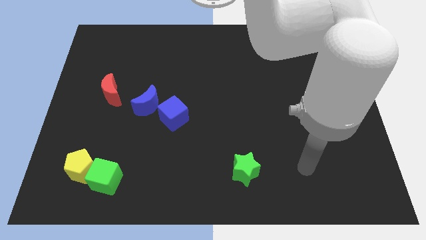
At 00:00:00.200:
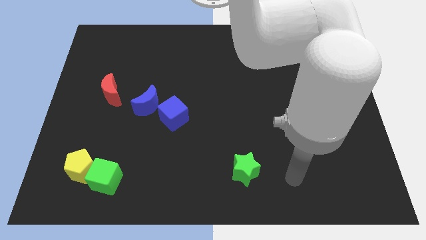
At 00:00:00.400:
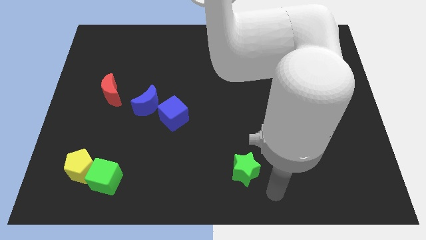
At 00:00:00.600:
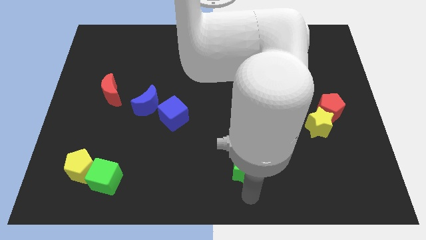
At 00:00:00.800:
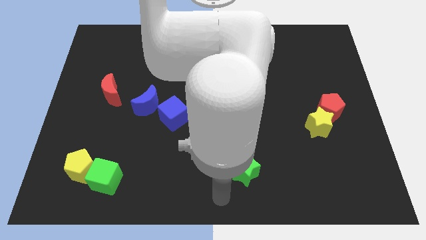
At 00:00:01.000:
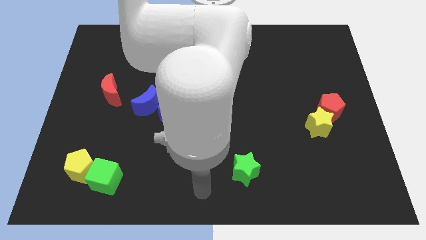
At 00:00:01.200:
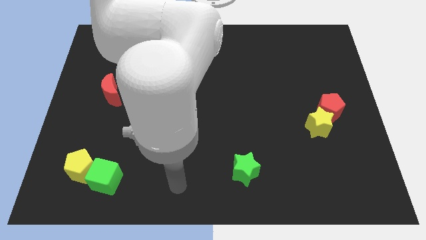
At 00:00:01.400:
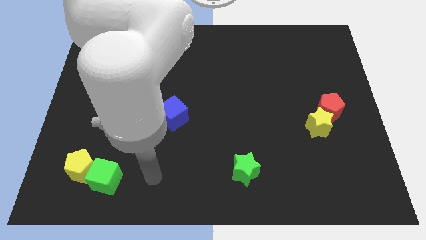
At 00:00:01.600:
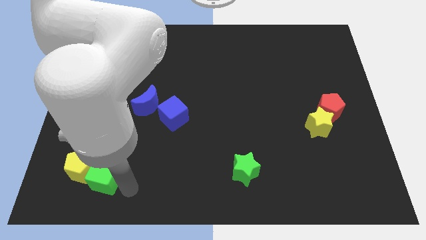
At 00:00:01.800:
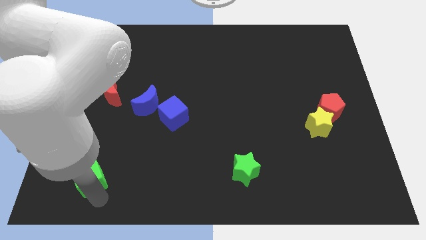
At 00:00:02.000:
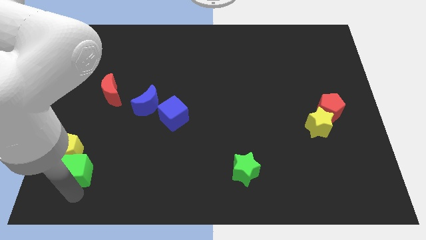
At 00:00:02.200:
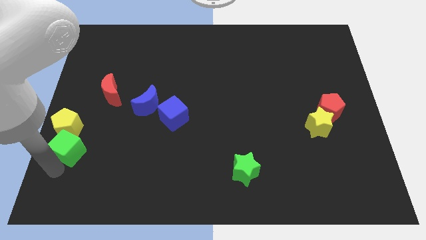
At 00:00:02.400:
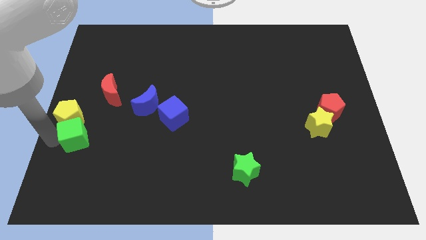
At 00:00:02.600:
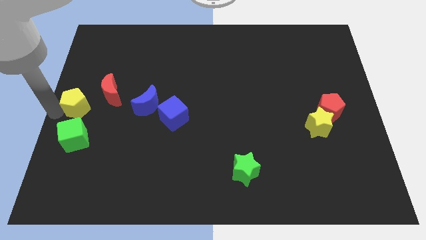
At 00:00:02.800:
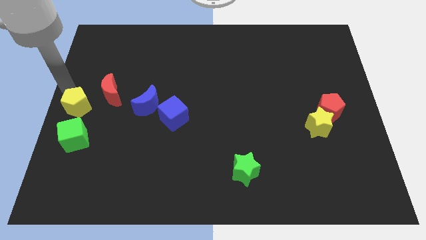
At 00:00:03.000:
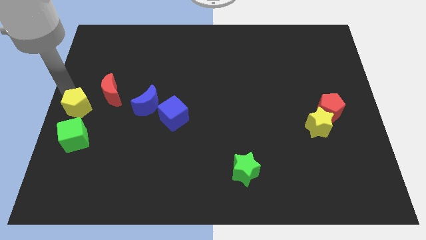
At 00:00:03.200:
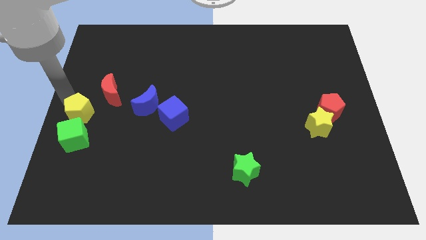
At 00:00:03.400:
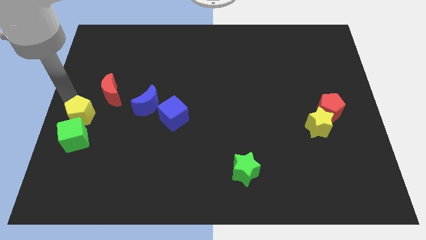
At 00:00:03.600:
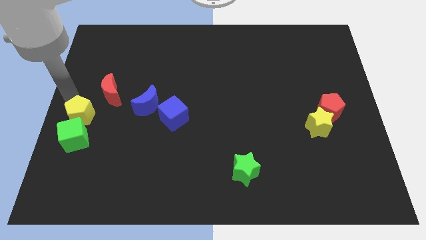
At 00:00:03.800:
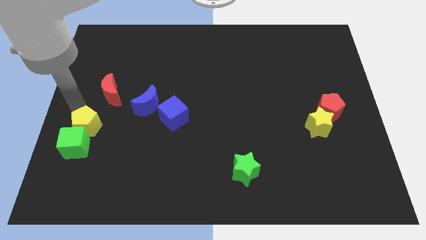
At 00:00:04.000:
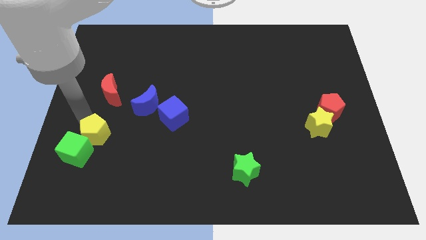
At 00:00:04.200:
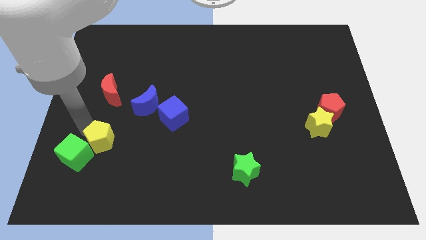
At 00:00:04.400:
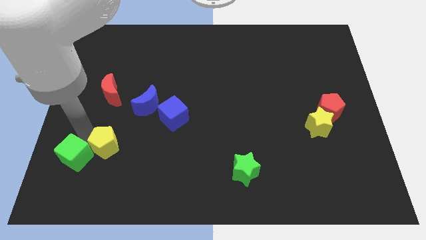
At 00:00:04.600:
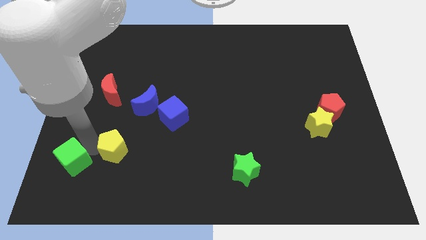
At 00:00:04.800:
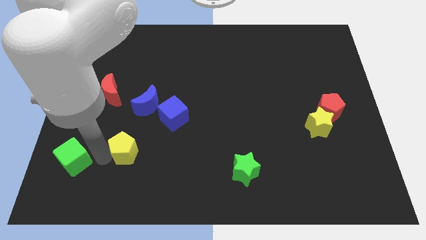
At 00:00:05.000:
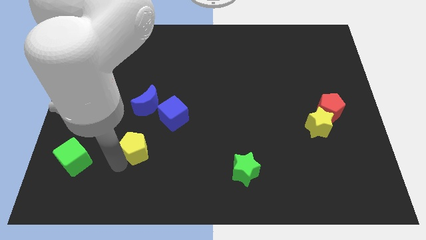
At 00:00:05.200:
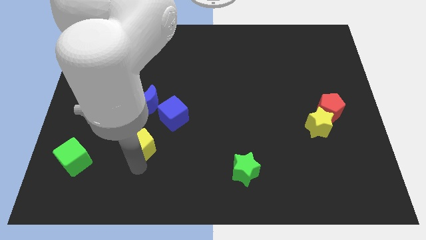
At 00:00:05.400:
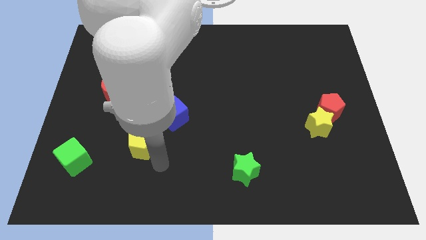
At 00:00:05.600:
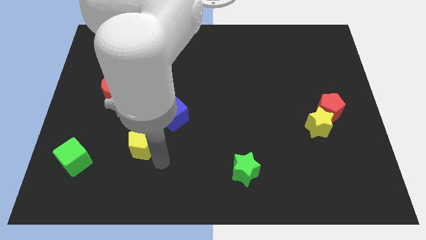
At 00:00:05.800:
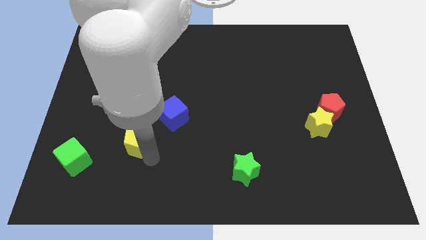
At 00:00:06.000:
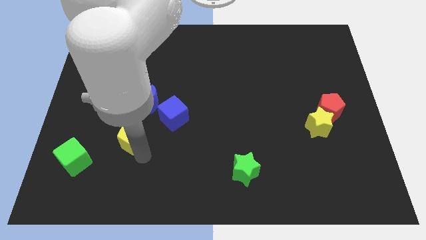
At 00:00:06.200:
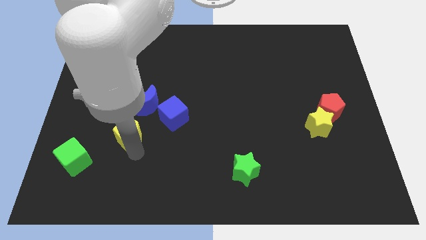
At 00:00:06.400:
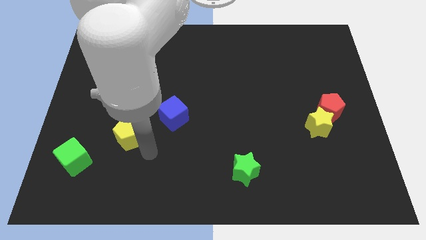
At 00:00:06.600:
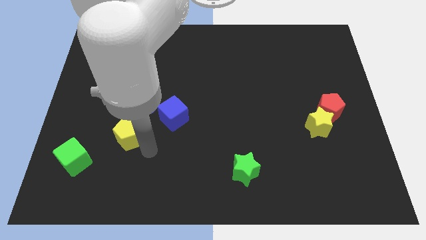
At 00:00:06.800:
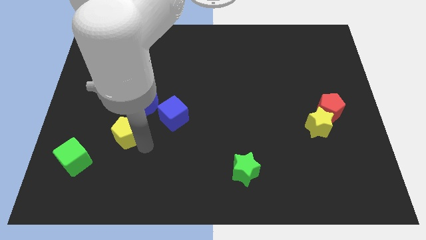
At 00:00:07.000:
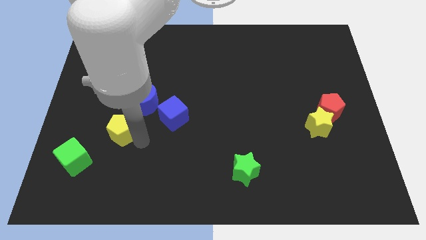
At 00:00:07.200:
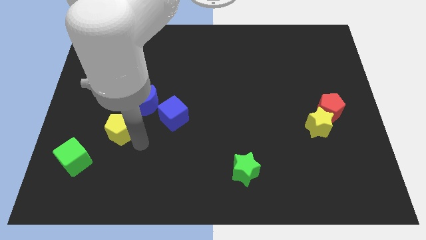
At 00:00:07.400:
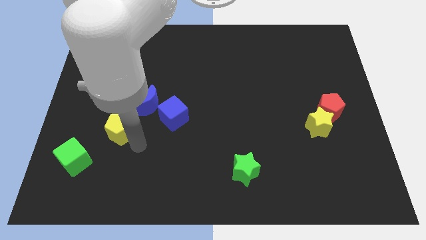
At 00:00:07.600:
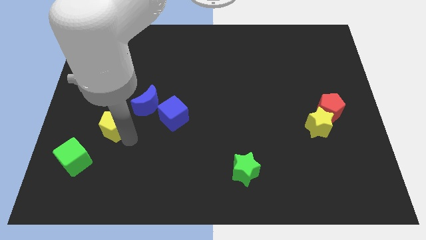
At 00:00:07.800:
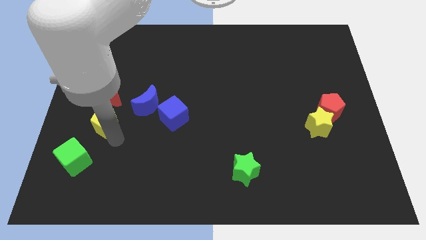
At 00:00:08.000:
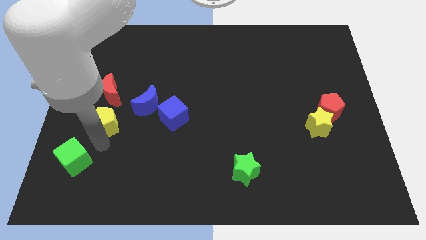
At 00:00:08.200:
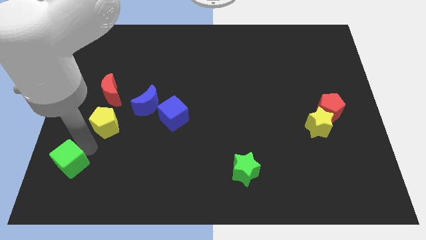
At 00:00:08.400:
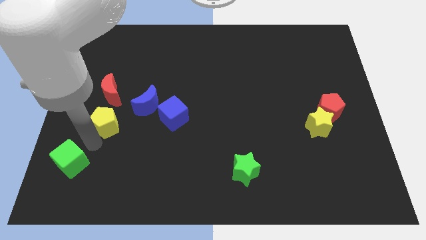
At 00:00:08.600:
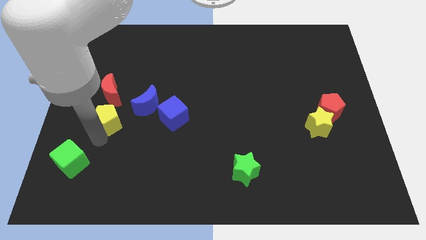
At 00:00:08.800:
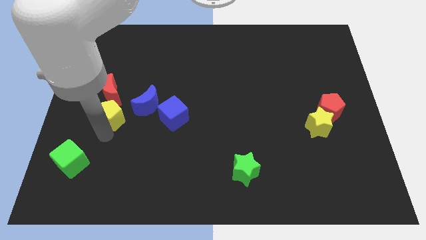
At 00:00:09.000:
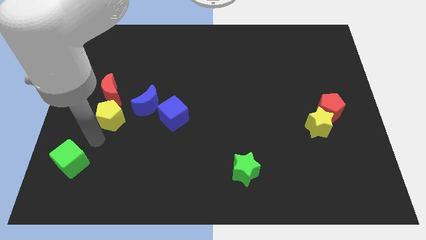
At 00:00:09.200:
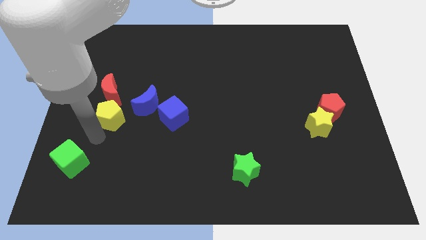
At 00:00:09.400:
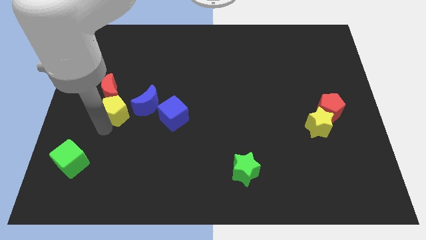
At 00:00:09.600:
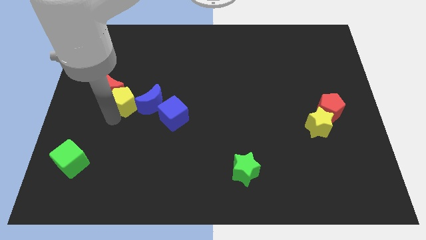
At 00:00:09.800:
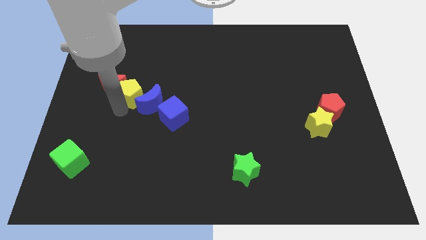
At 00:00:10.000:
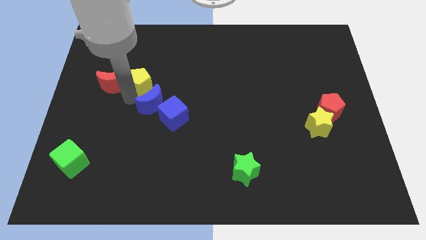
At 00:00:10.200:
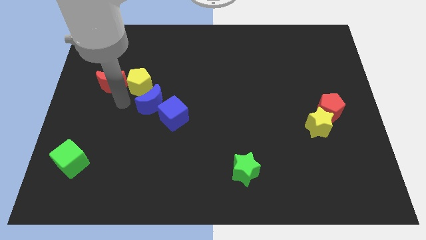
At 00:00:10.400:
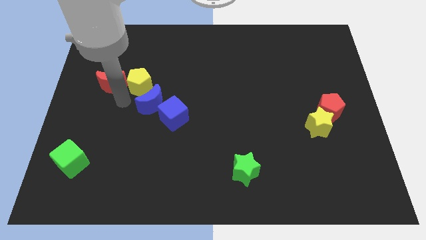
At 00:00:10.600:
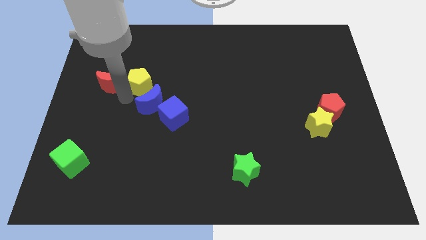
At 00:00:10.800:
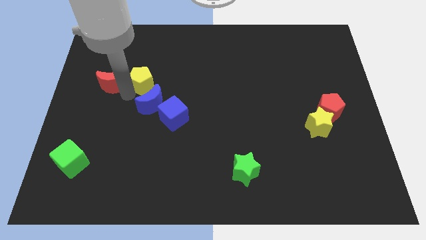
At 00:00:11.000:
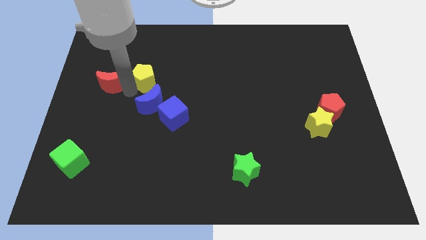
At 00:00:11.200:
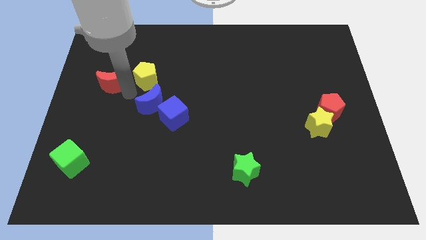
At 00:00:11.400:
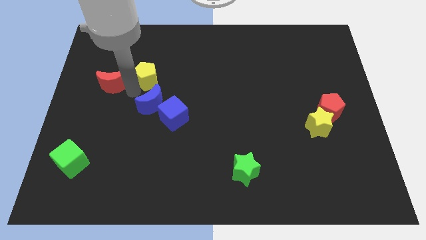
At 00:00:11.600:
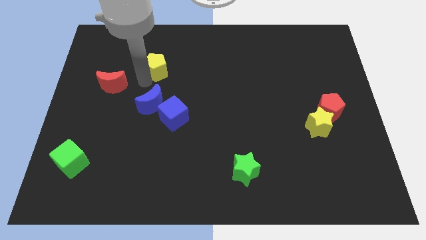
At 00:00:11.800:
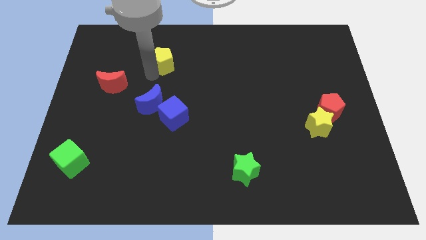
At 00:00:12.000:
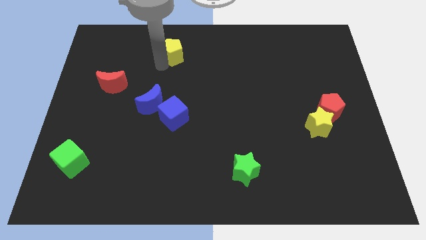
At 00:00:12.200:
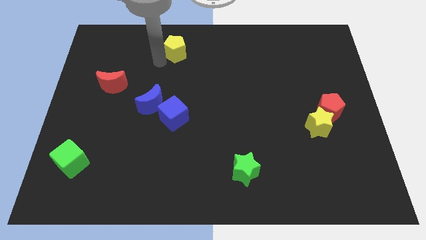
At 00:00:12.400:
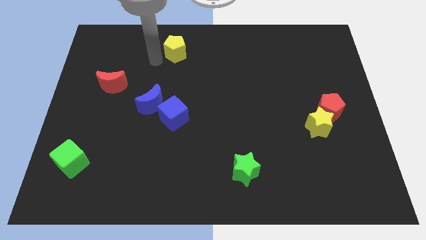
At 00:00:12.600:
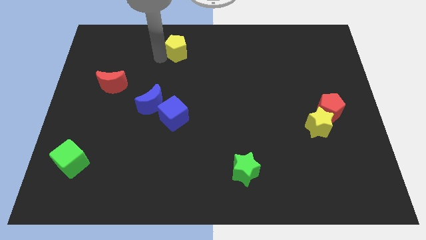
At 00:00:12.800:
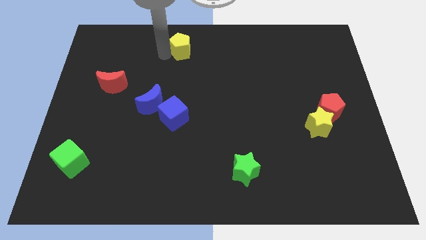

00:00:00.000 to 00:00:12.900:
push the yellow pentagon to the top side
